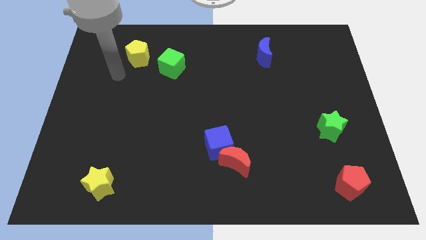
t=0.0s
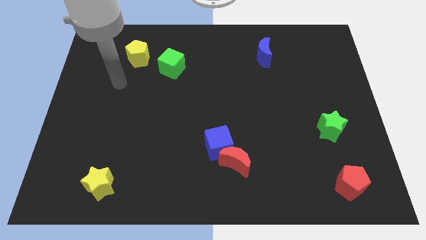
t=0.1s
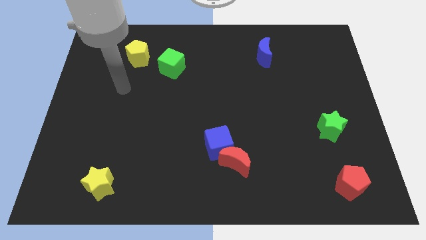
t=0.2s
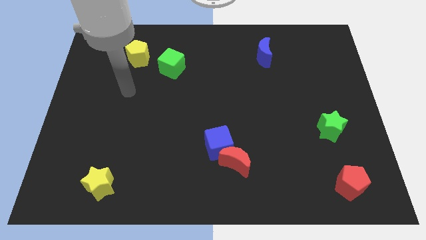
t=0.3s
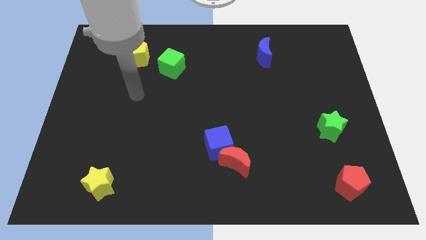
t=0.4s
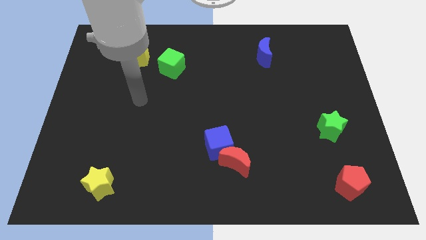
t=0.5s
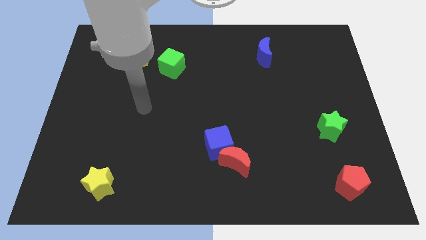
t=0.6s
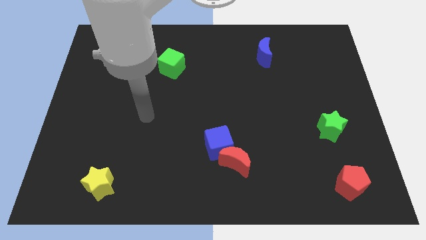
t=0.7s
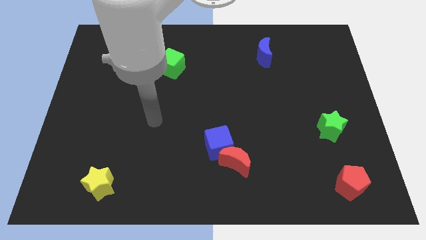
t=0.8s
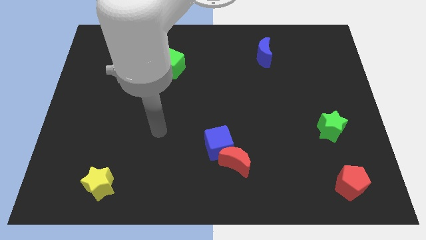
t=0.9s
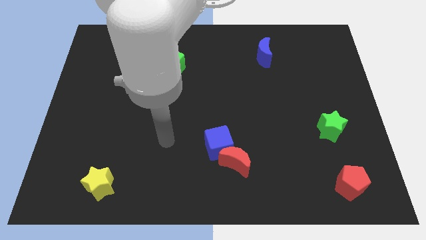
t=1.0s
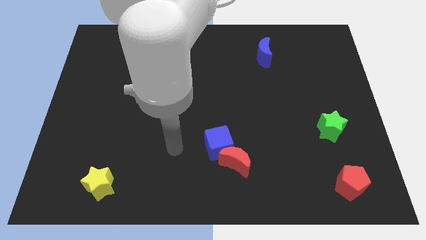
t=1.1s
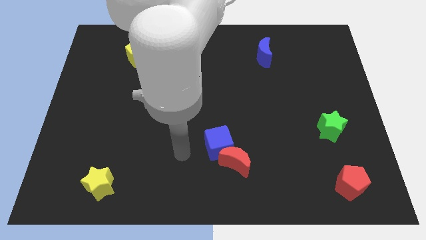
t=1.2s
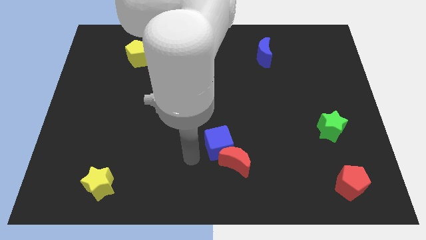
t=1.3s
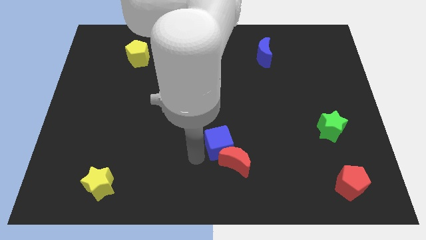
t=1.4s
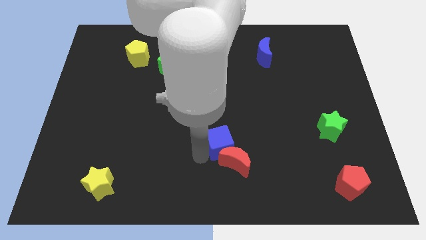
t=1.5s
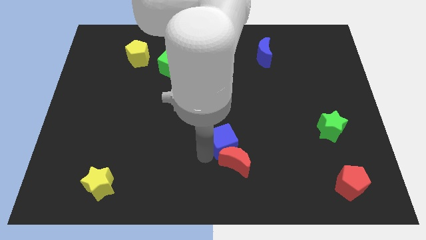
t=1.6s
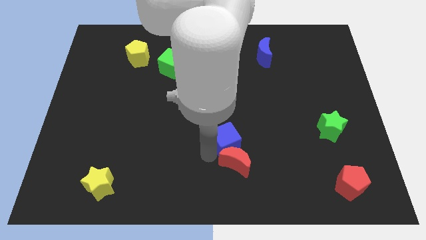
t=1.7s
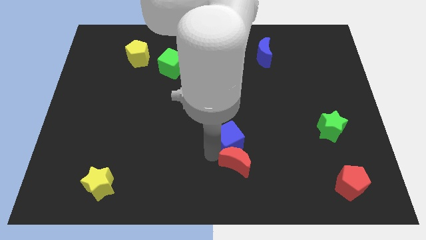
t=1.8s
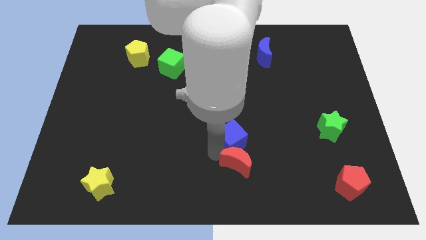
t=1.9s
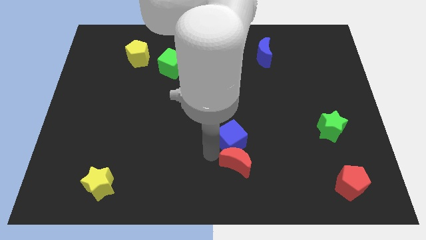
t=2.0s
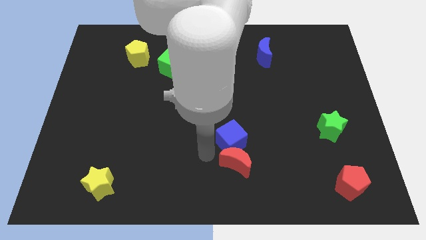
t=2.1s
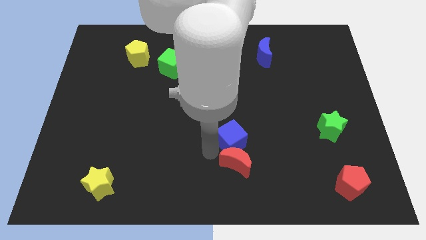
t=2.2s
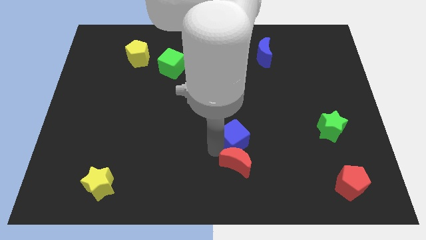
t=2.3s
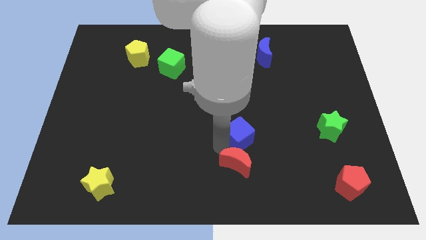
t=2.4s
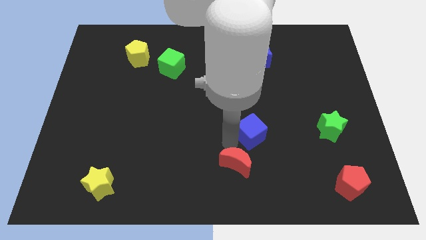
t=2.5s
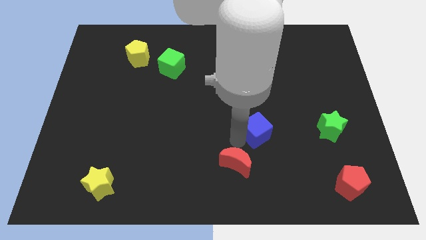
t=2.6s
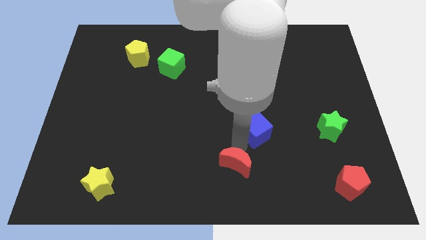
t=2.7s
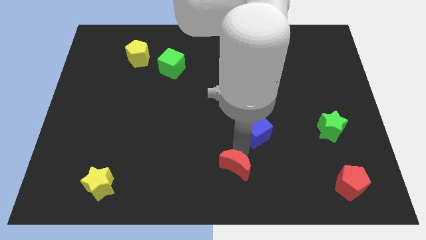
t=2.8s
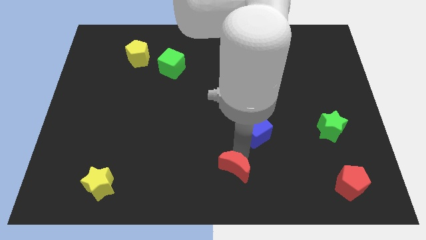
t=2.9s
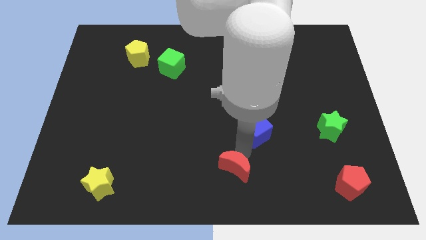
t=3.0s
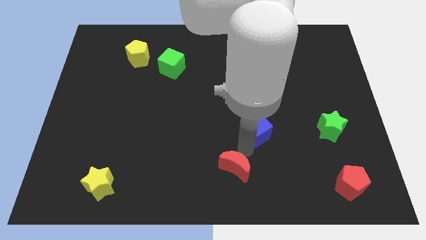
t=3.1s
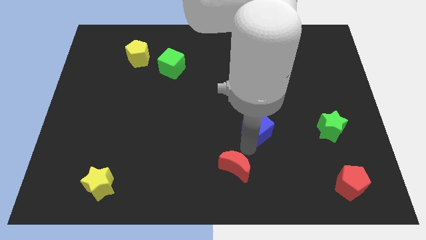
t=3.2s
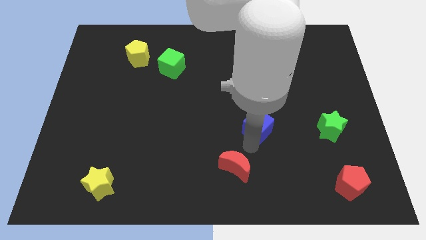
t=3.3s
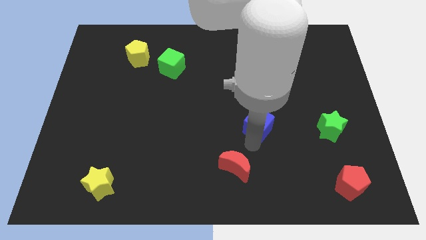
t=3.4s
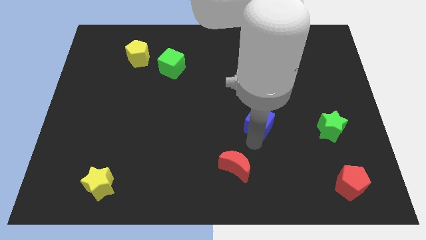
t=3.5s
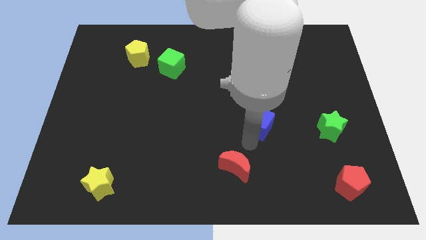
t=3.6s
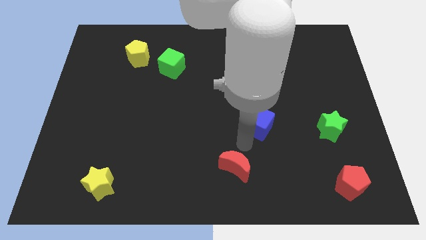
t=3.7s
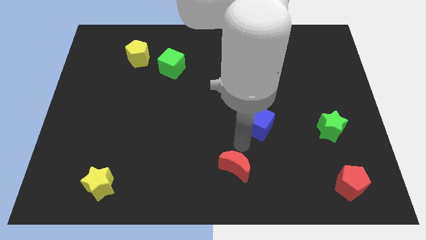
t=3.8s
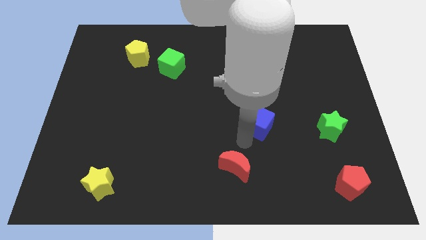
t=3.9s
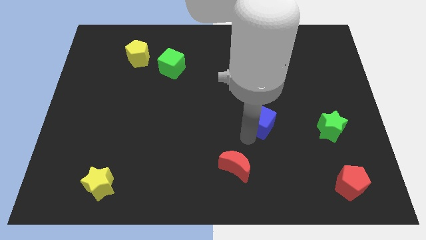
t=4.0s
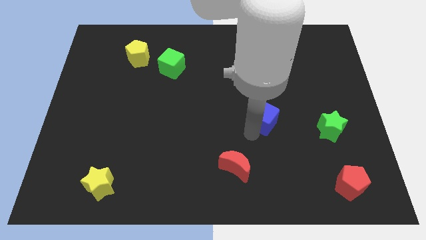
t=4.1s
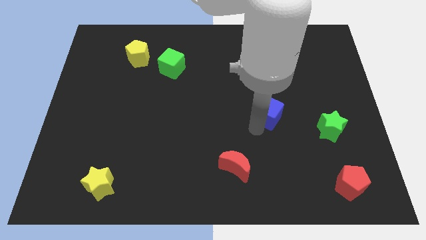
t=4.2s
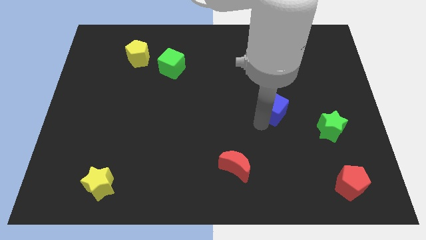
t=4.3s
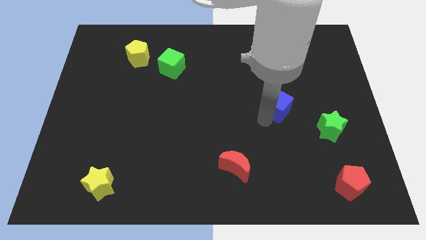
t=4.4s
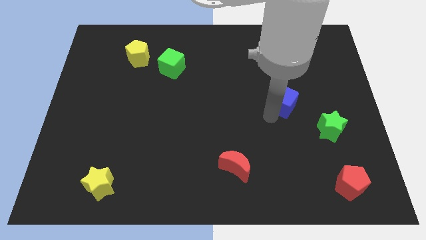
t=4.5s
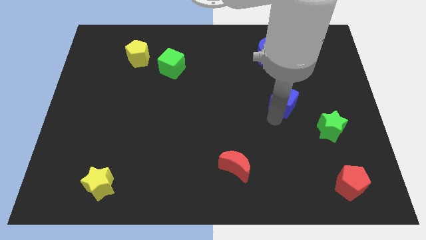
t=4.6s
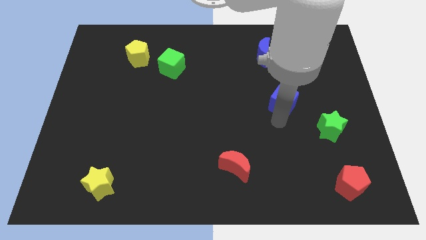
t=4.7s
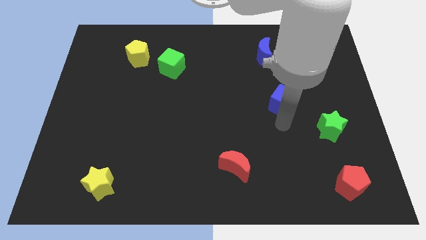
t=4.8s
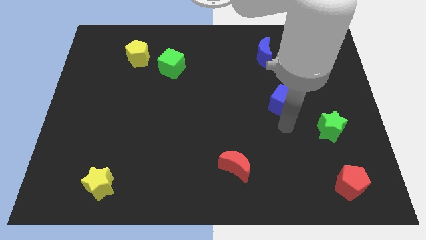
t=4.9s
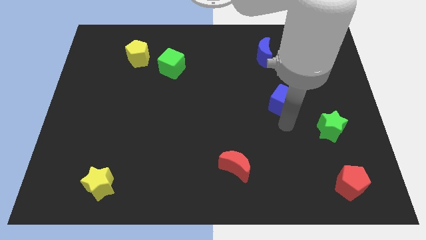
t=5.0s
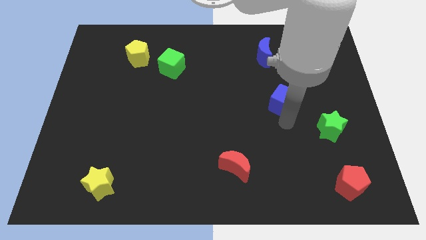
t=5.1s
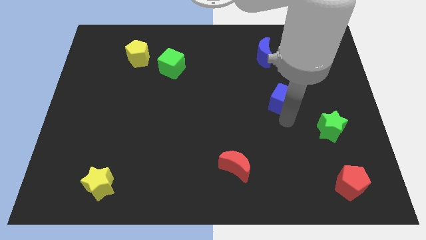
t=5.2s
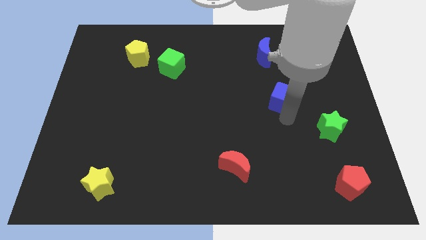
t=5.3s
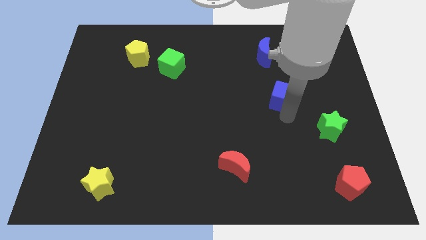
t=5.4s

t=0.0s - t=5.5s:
slide the blue cube up and then right

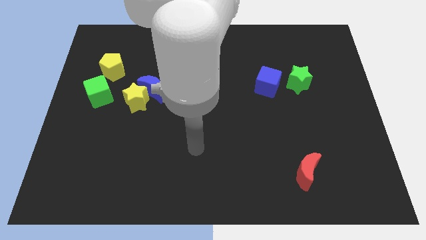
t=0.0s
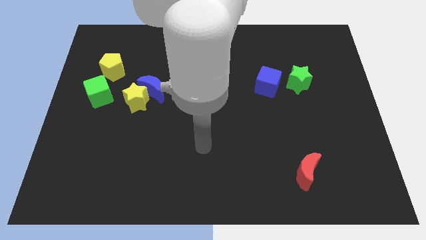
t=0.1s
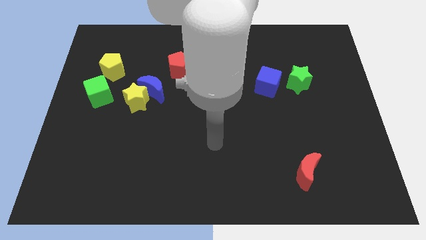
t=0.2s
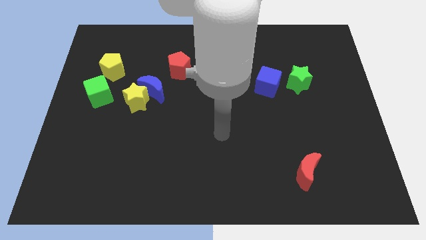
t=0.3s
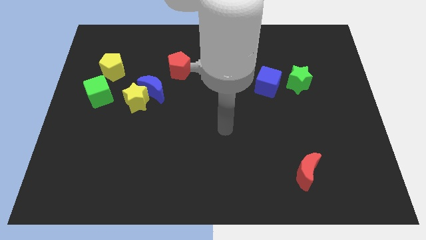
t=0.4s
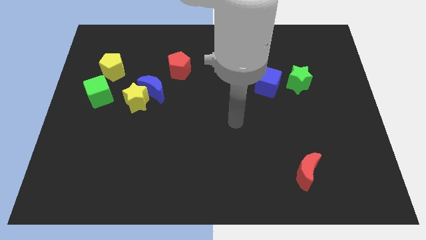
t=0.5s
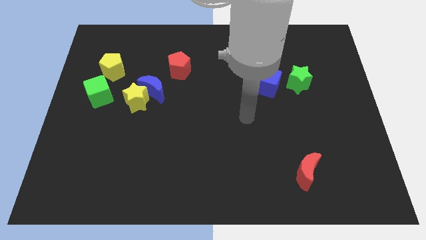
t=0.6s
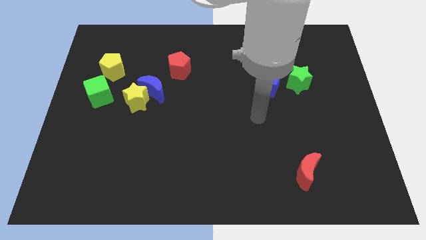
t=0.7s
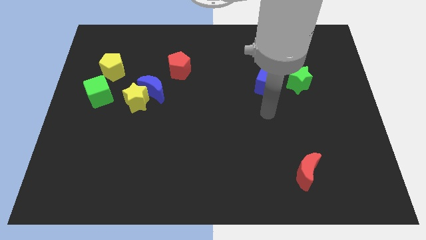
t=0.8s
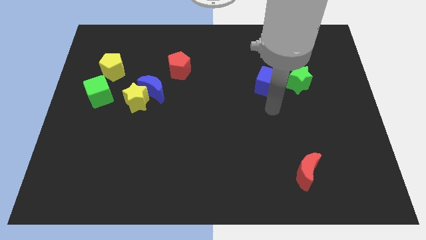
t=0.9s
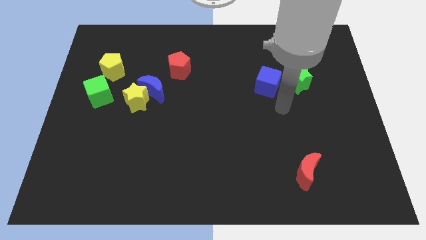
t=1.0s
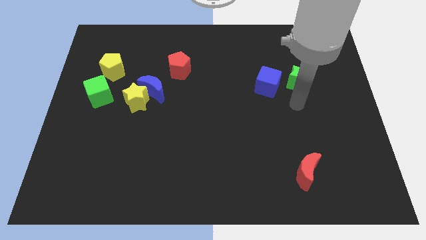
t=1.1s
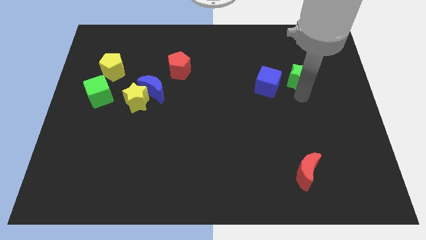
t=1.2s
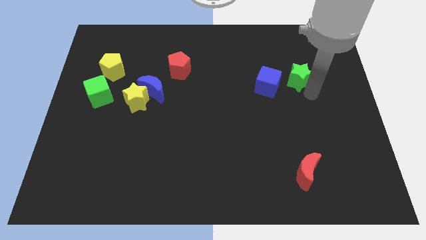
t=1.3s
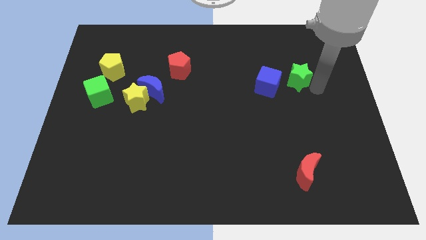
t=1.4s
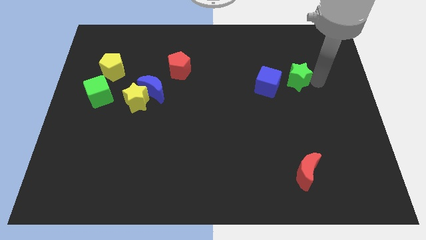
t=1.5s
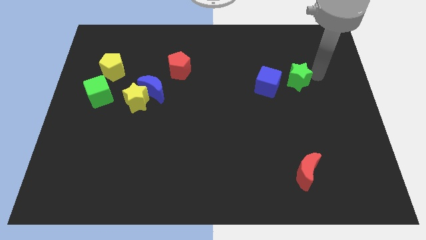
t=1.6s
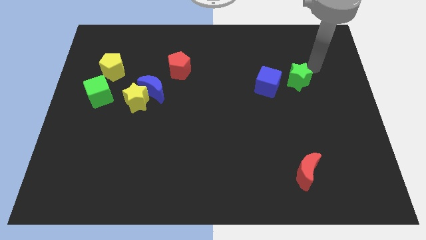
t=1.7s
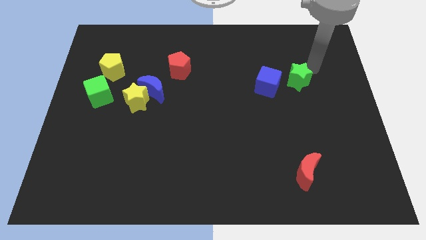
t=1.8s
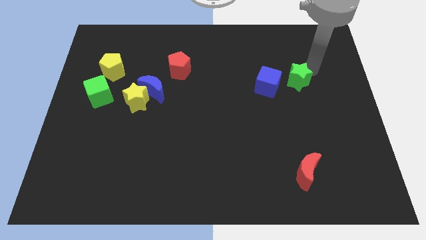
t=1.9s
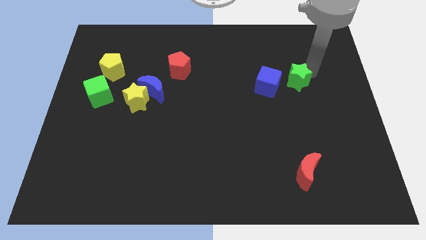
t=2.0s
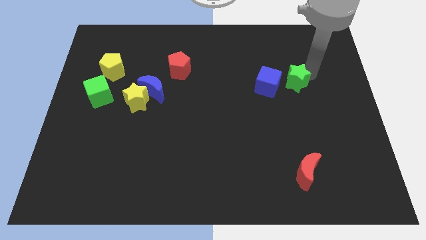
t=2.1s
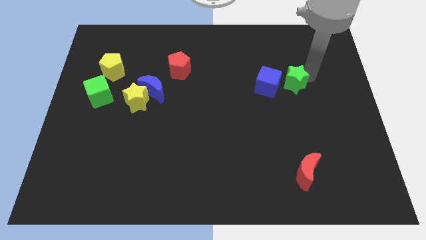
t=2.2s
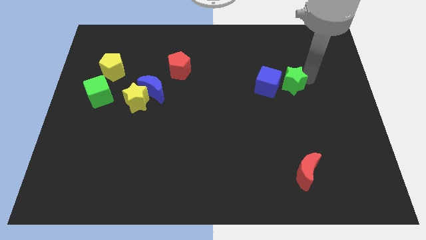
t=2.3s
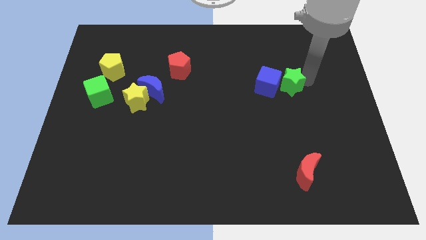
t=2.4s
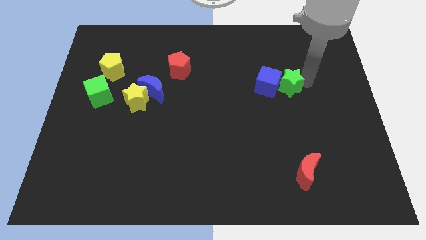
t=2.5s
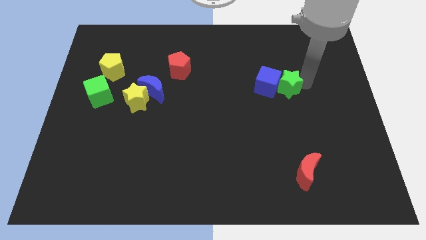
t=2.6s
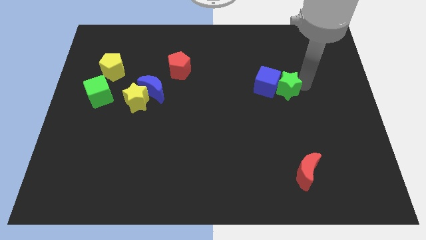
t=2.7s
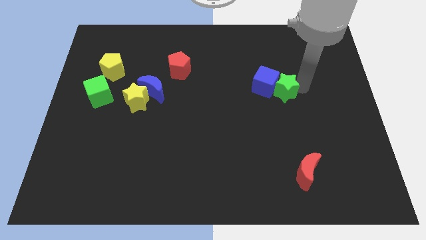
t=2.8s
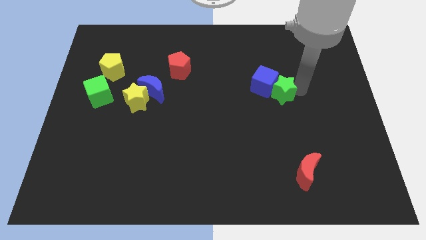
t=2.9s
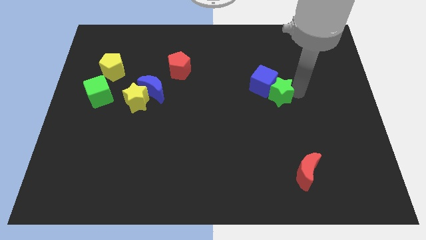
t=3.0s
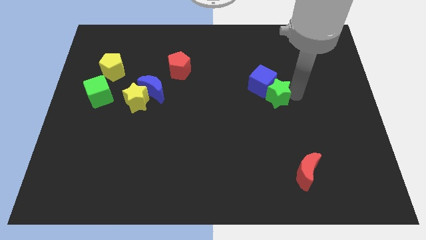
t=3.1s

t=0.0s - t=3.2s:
slightly move the green star downwards and then left
